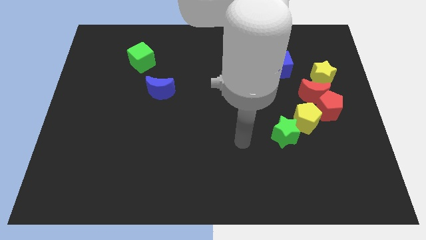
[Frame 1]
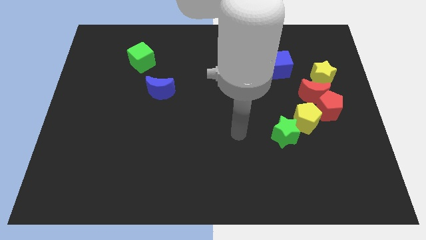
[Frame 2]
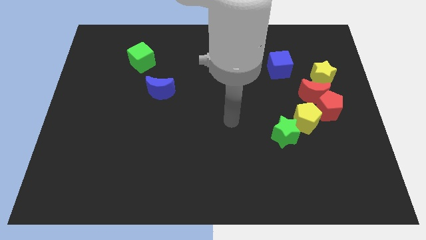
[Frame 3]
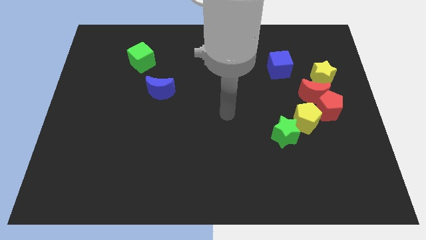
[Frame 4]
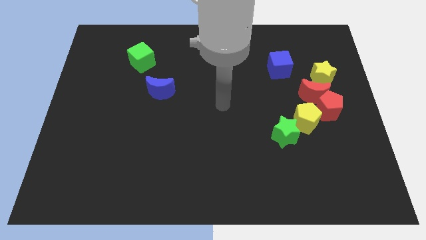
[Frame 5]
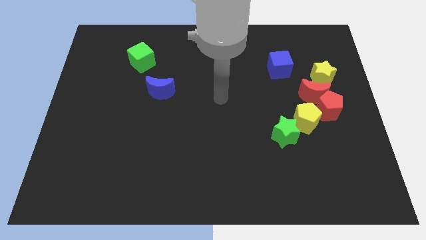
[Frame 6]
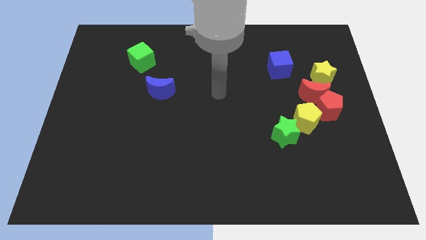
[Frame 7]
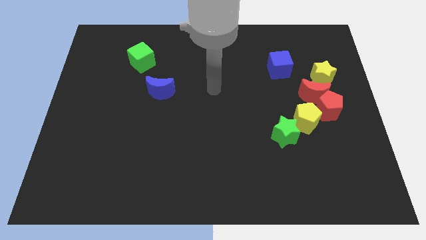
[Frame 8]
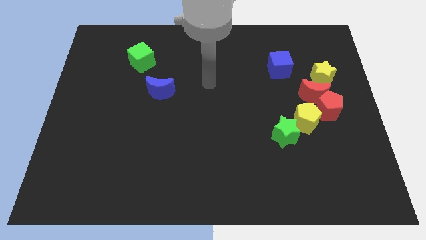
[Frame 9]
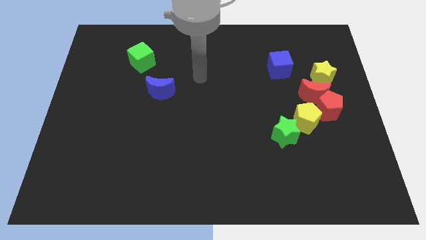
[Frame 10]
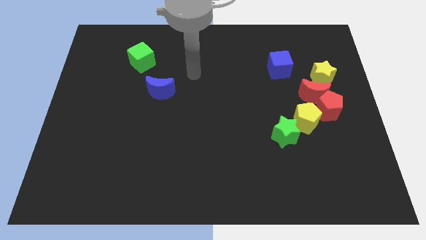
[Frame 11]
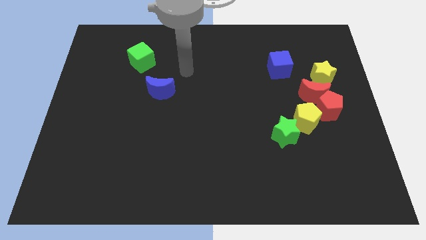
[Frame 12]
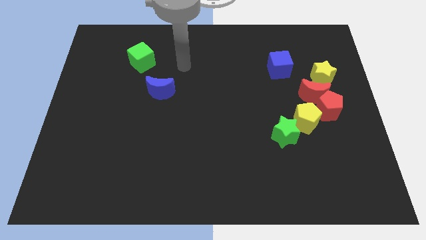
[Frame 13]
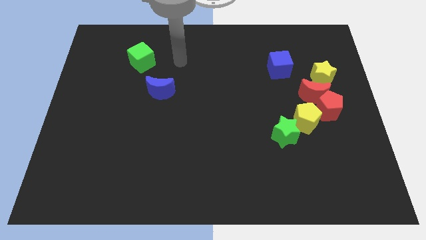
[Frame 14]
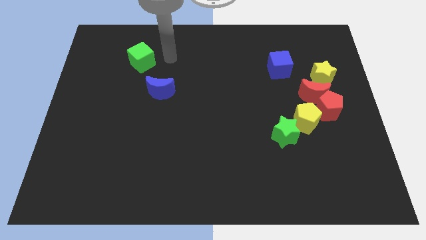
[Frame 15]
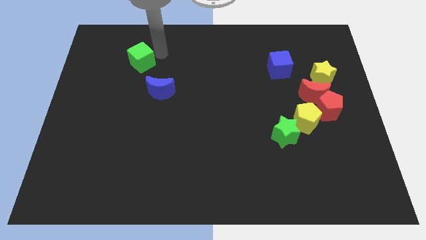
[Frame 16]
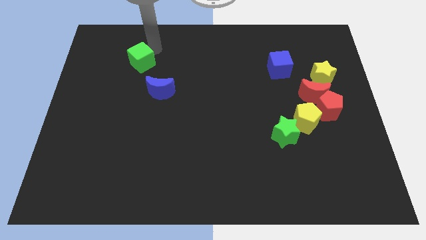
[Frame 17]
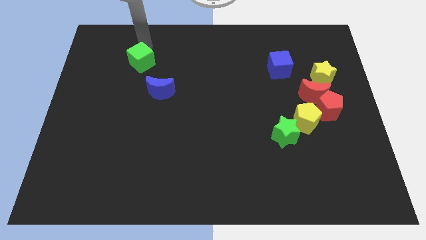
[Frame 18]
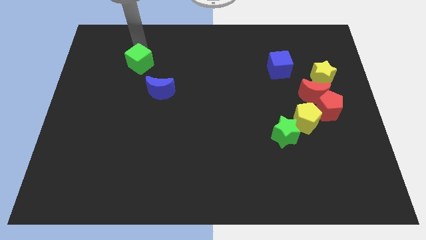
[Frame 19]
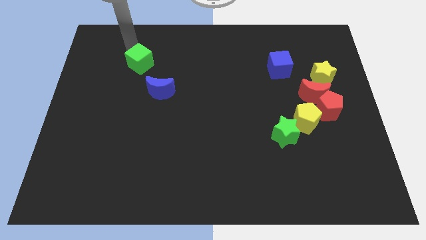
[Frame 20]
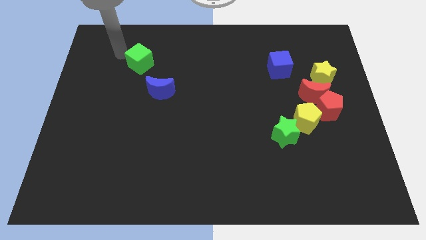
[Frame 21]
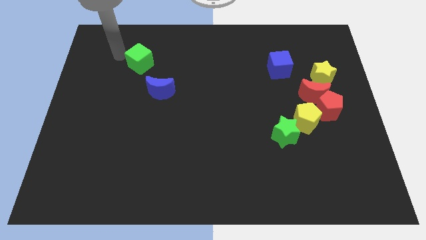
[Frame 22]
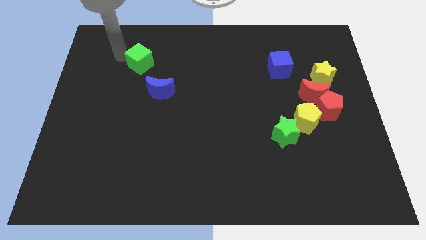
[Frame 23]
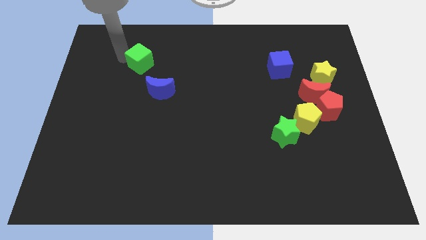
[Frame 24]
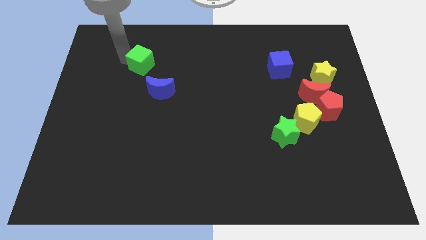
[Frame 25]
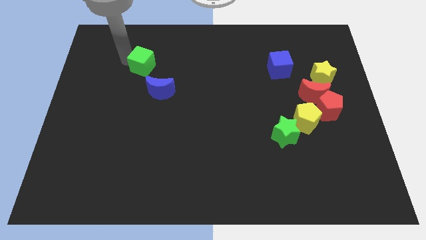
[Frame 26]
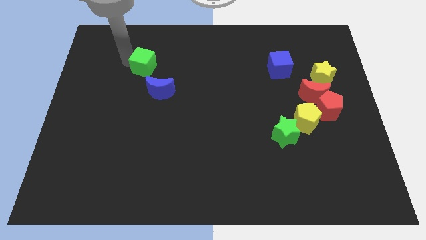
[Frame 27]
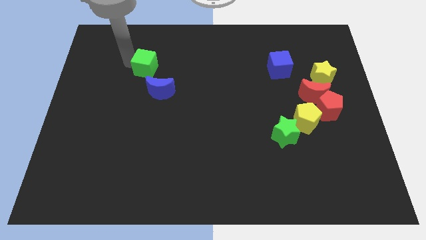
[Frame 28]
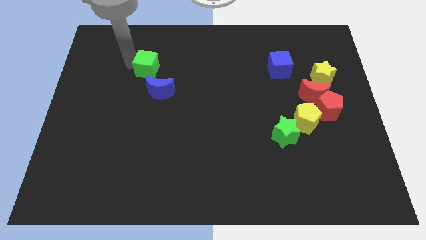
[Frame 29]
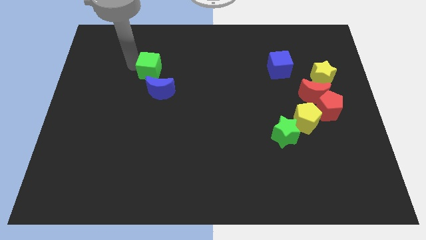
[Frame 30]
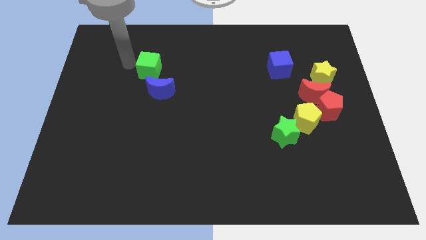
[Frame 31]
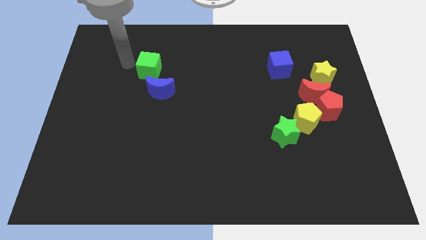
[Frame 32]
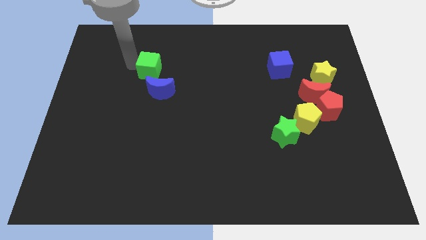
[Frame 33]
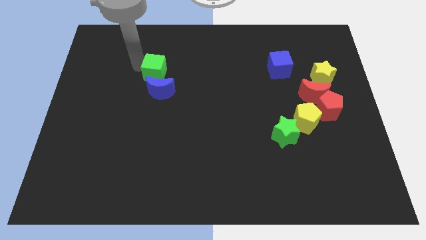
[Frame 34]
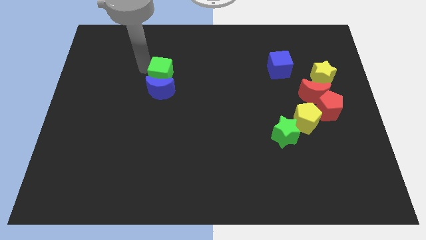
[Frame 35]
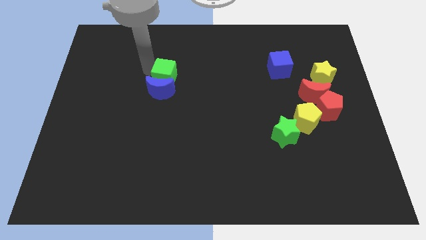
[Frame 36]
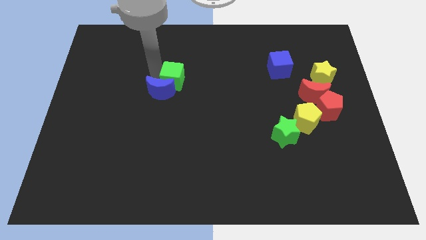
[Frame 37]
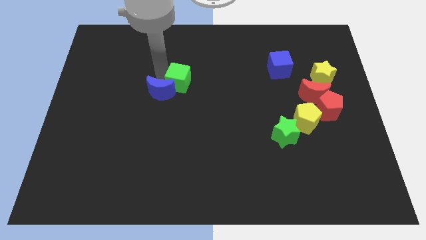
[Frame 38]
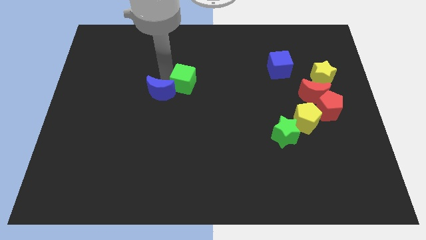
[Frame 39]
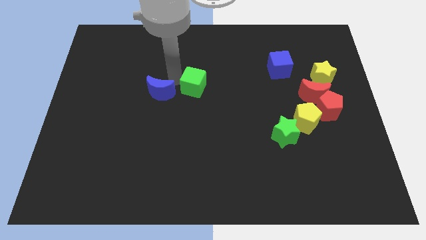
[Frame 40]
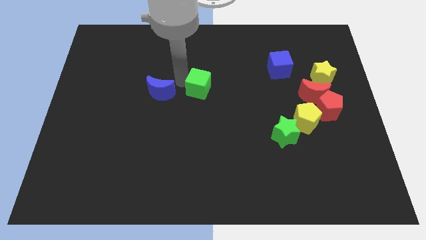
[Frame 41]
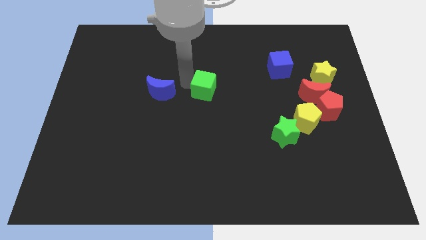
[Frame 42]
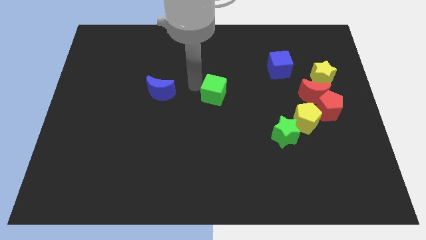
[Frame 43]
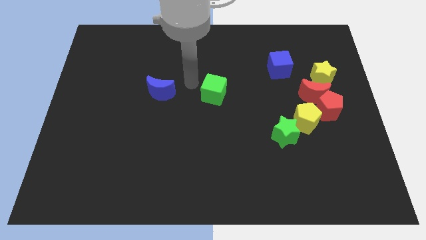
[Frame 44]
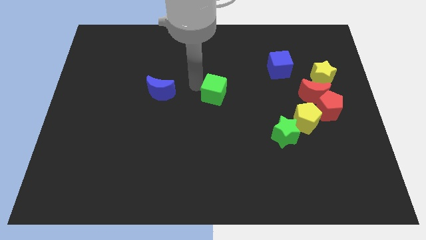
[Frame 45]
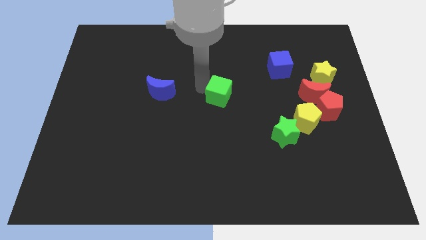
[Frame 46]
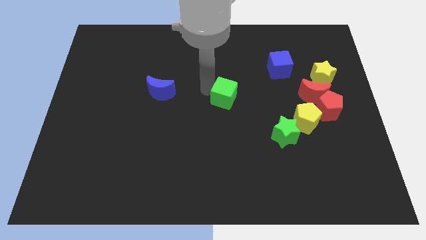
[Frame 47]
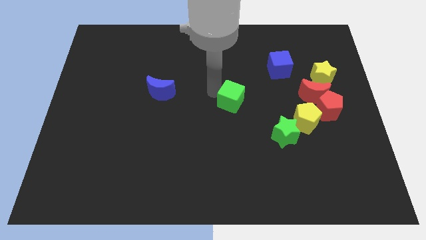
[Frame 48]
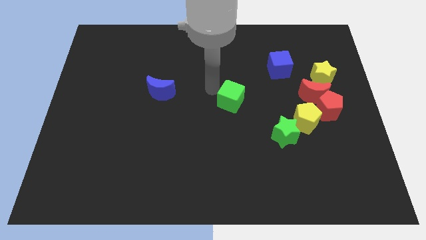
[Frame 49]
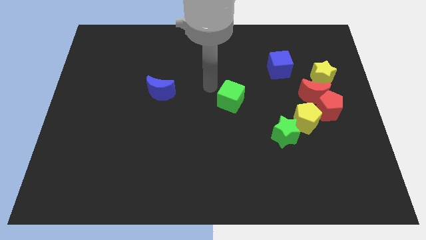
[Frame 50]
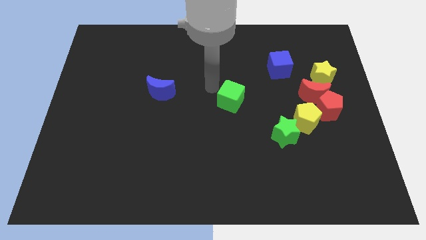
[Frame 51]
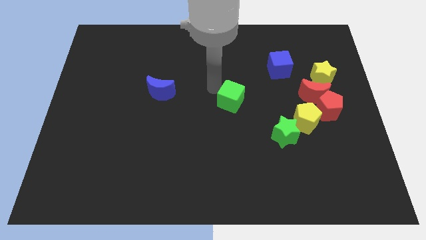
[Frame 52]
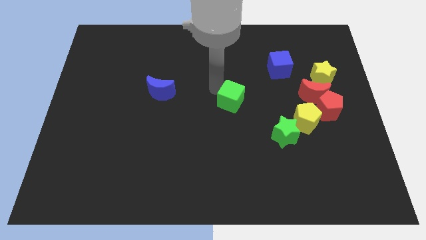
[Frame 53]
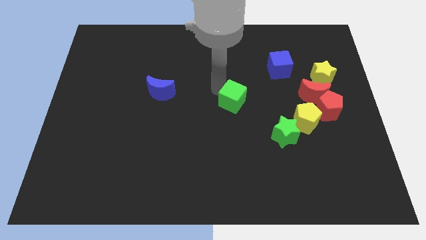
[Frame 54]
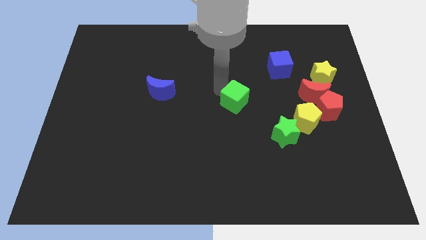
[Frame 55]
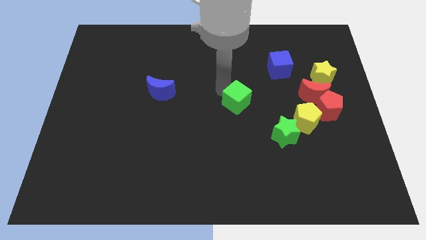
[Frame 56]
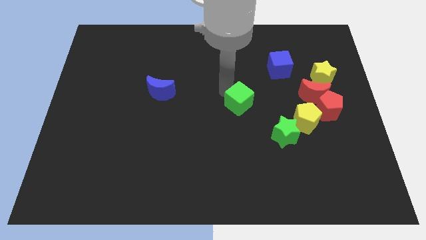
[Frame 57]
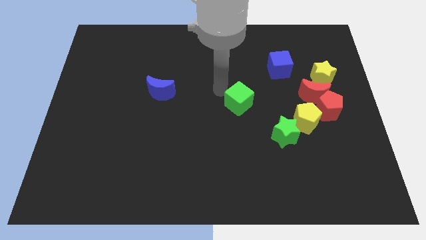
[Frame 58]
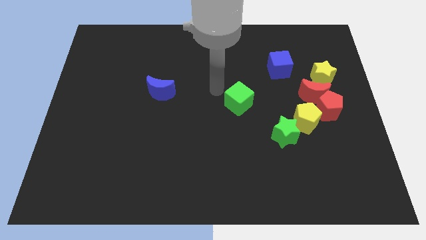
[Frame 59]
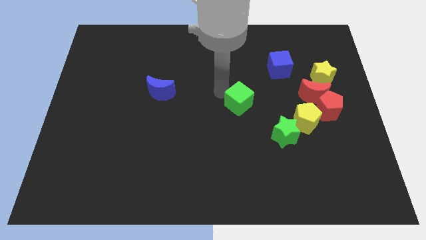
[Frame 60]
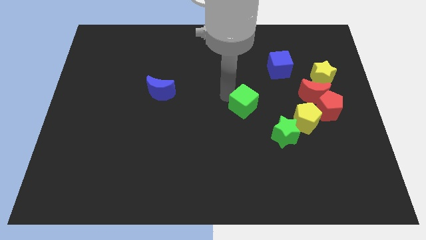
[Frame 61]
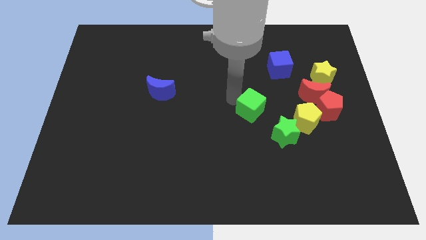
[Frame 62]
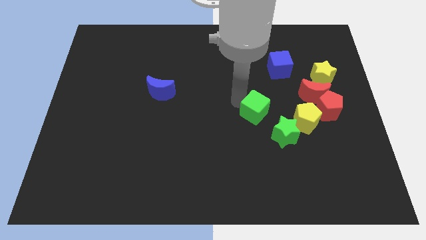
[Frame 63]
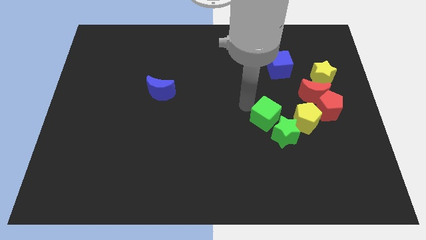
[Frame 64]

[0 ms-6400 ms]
move the green cube next to the green star

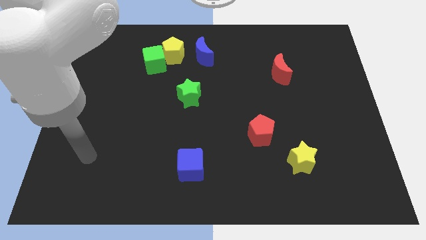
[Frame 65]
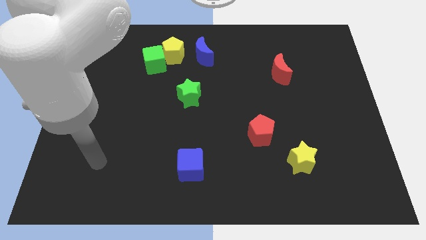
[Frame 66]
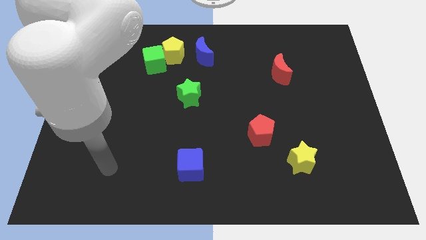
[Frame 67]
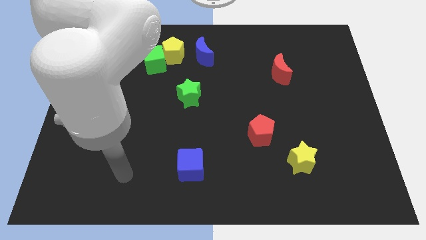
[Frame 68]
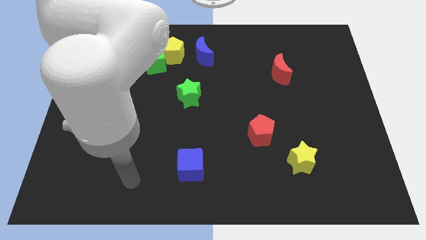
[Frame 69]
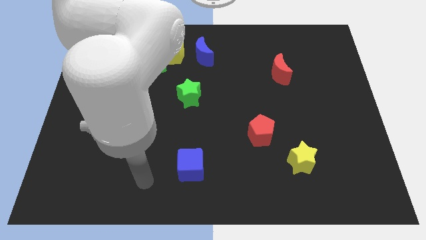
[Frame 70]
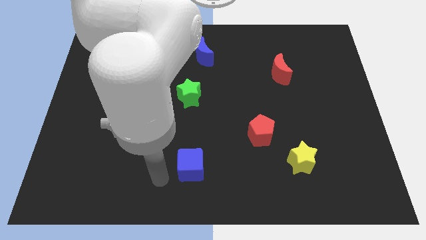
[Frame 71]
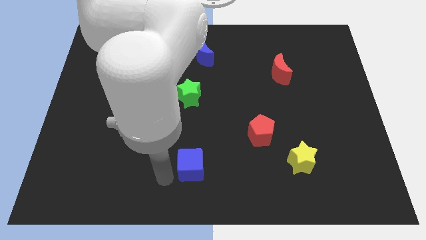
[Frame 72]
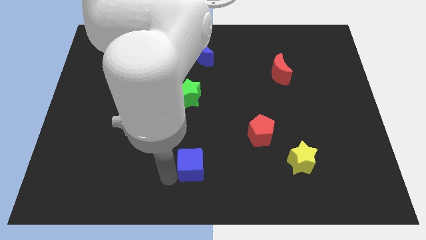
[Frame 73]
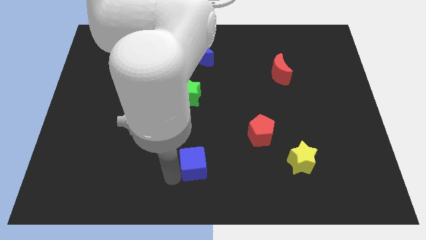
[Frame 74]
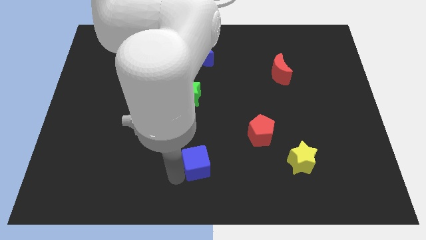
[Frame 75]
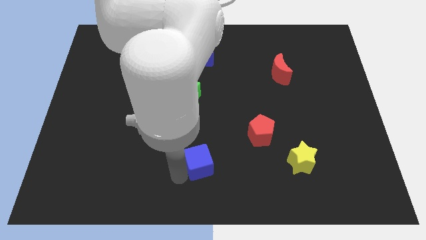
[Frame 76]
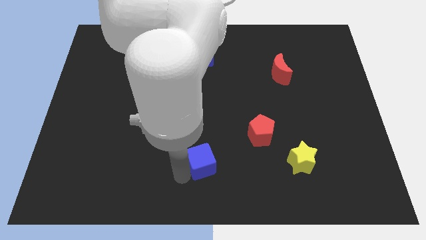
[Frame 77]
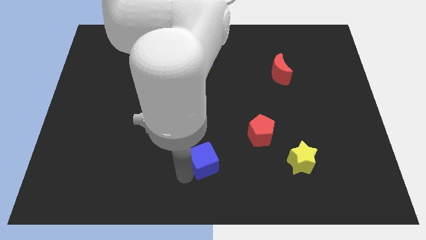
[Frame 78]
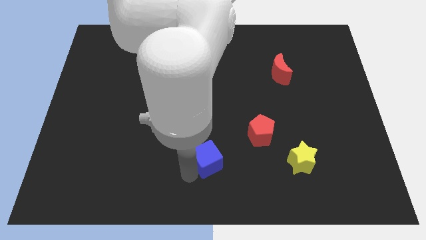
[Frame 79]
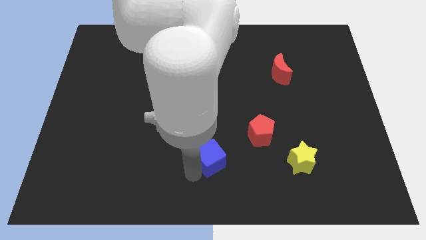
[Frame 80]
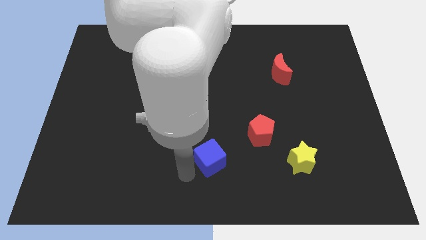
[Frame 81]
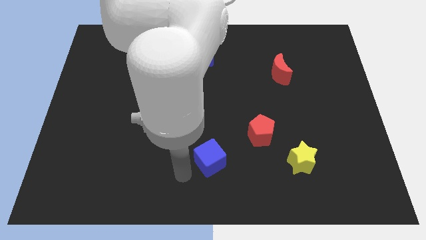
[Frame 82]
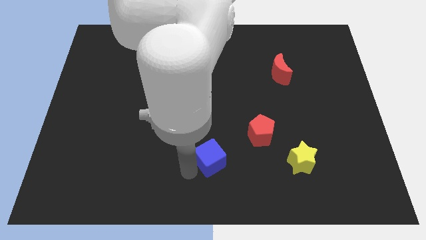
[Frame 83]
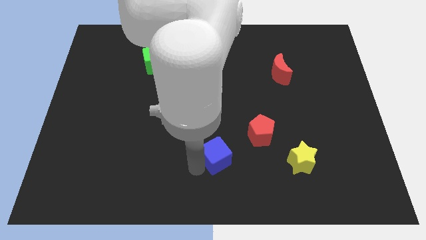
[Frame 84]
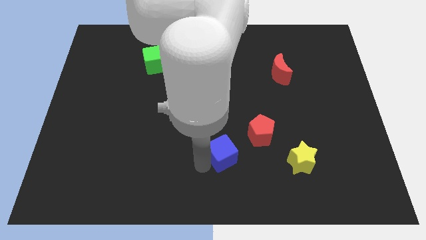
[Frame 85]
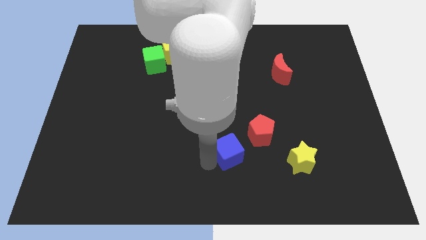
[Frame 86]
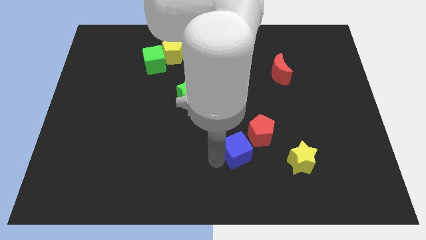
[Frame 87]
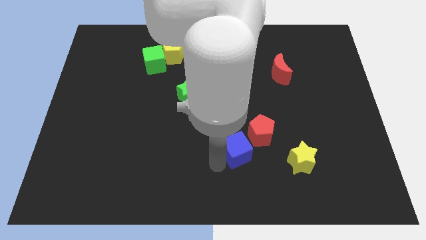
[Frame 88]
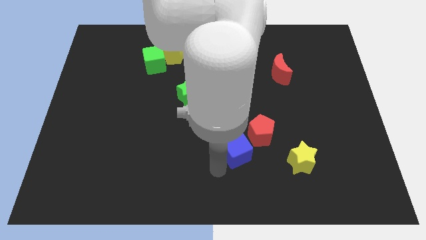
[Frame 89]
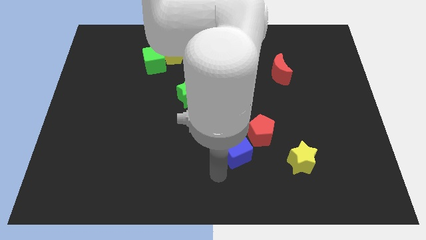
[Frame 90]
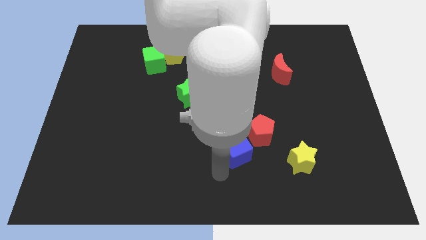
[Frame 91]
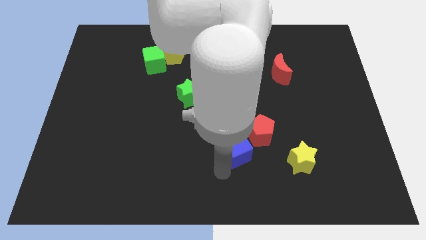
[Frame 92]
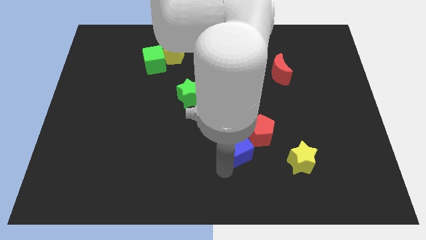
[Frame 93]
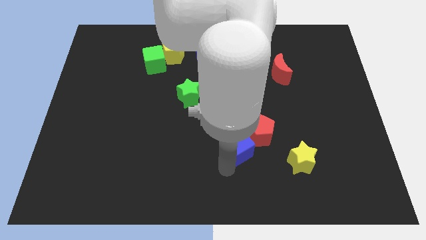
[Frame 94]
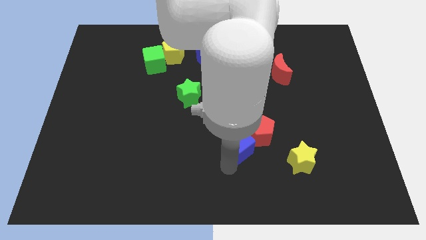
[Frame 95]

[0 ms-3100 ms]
push the blue cube towards the red pentagon
